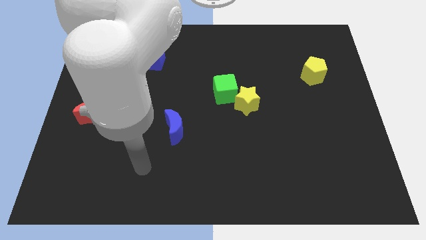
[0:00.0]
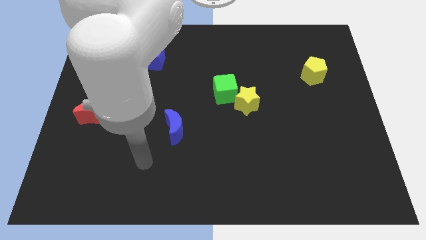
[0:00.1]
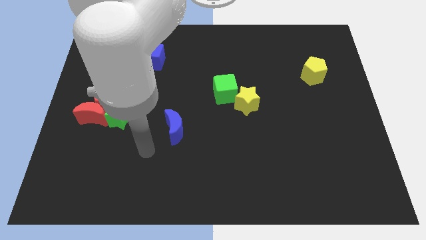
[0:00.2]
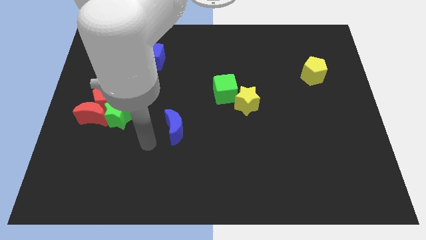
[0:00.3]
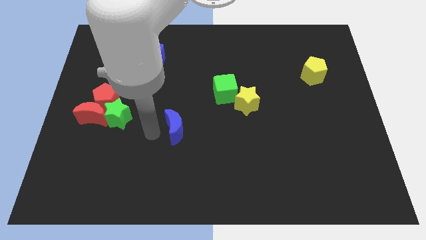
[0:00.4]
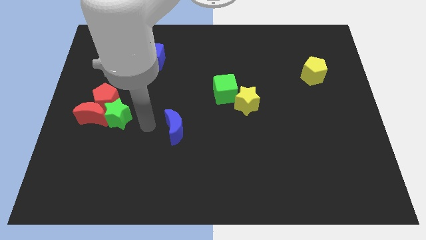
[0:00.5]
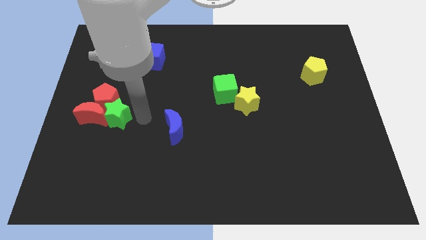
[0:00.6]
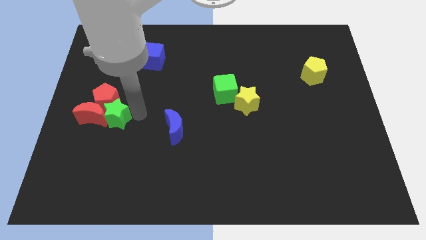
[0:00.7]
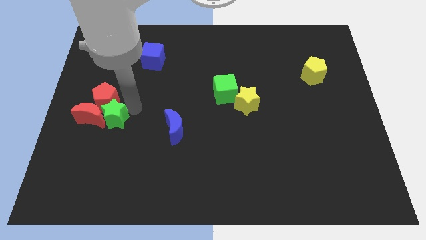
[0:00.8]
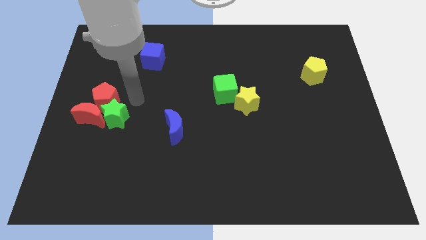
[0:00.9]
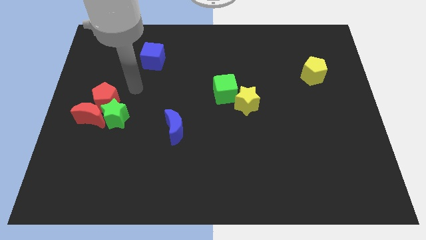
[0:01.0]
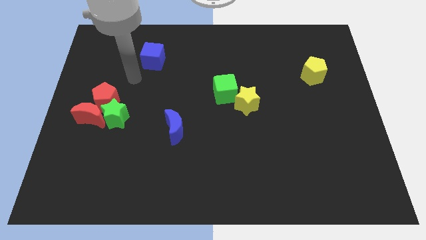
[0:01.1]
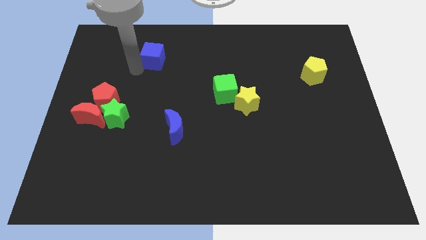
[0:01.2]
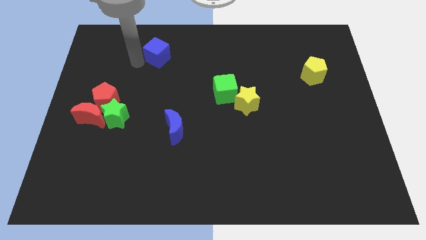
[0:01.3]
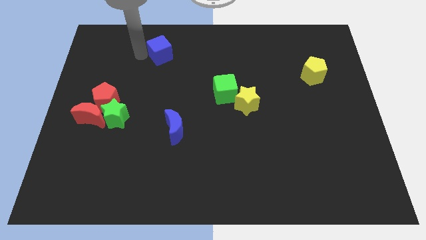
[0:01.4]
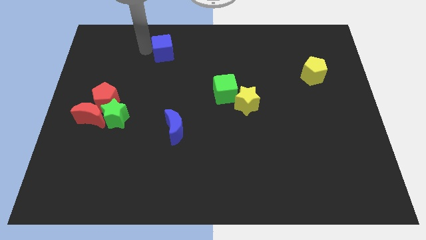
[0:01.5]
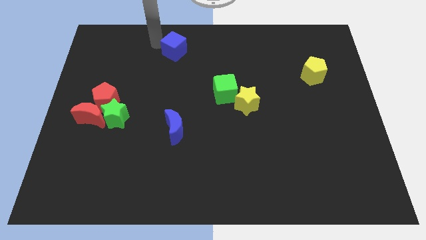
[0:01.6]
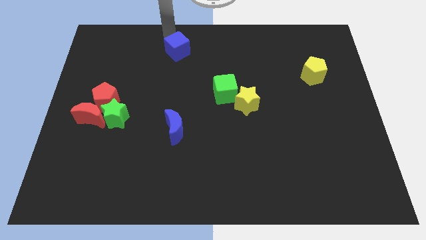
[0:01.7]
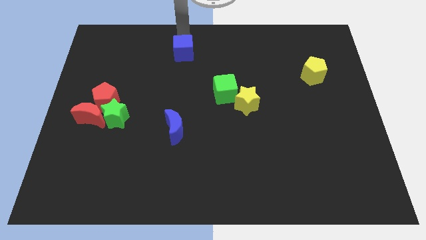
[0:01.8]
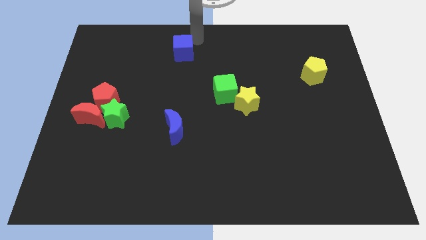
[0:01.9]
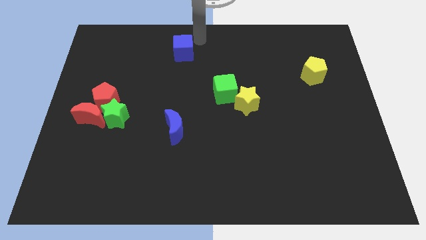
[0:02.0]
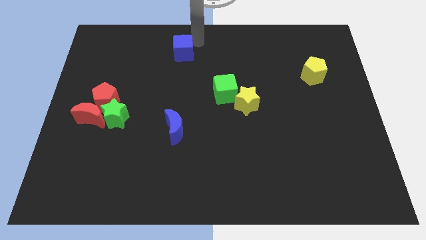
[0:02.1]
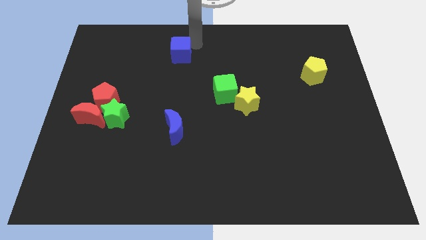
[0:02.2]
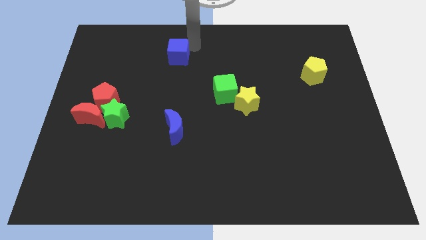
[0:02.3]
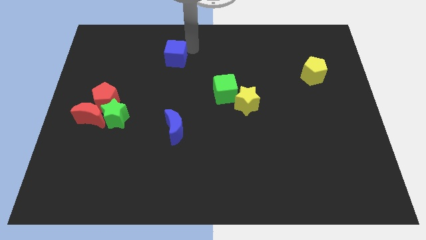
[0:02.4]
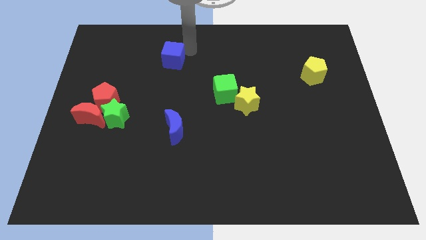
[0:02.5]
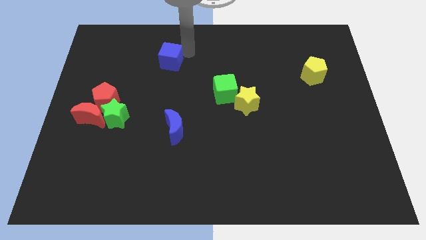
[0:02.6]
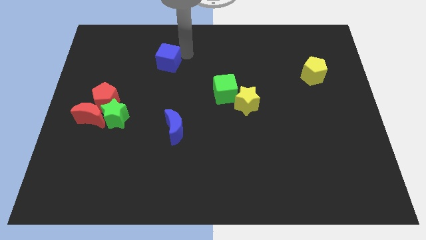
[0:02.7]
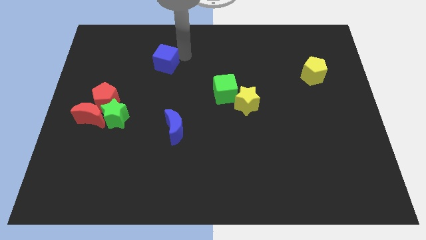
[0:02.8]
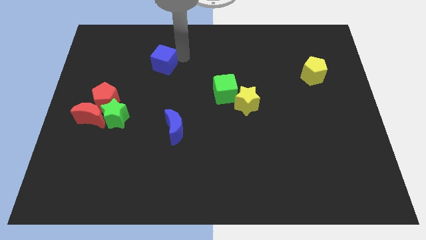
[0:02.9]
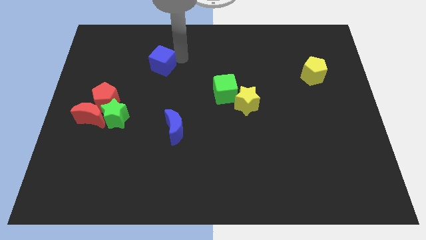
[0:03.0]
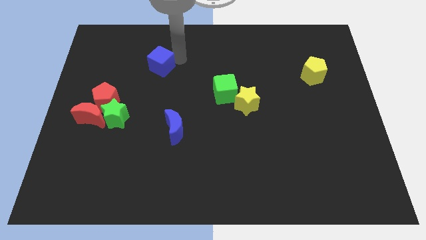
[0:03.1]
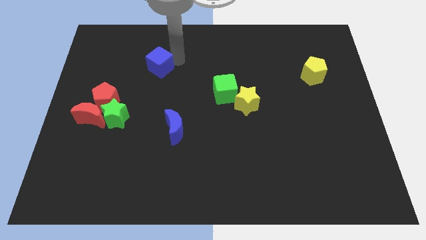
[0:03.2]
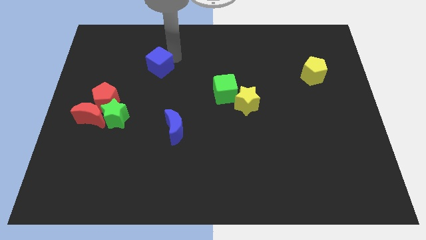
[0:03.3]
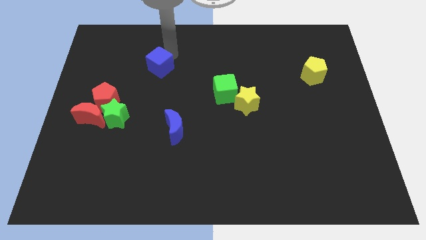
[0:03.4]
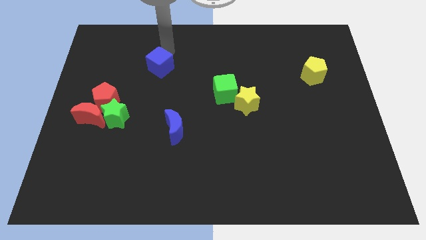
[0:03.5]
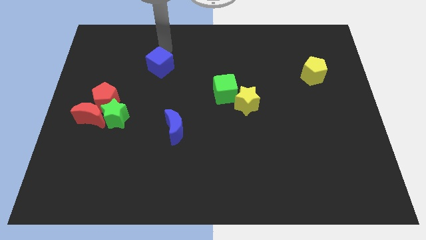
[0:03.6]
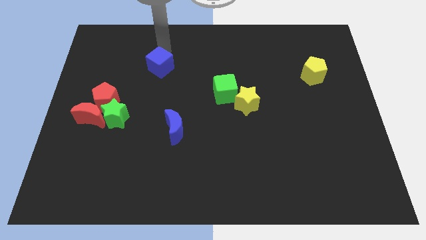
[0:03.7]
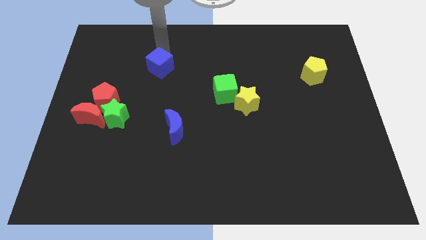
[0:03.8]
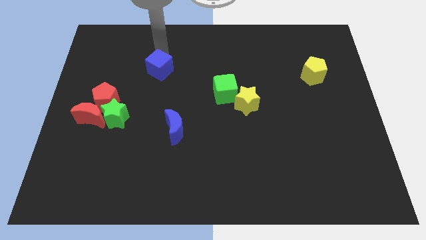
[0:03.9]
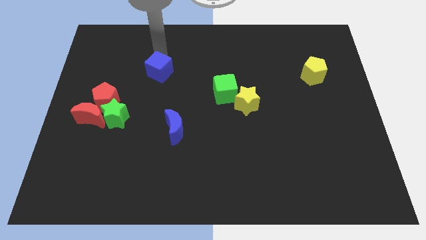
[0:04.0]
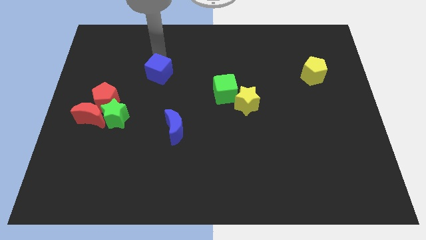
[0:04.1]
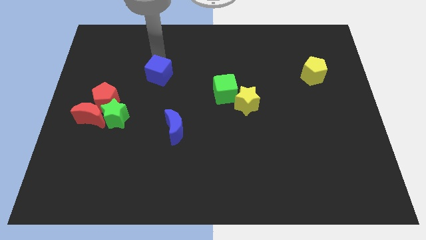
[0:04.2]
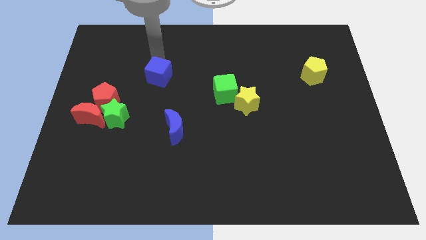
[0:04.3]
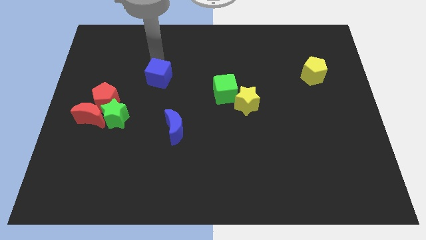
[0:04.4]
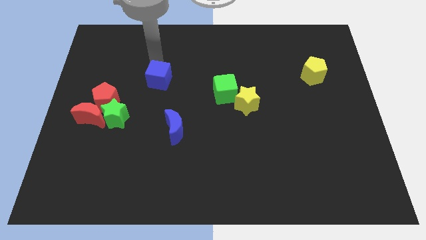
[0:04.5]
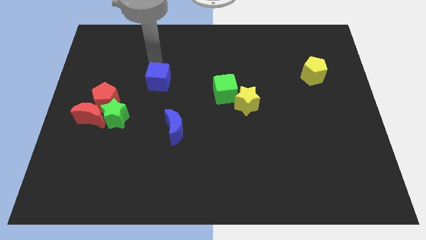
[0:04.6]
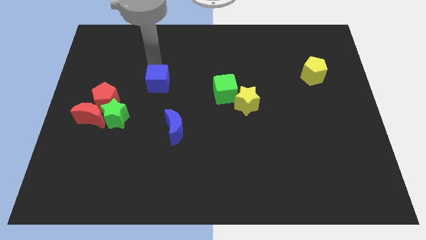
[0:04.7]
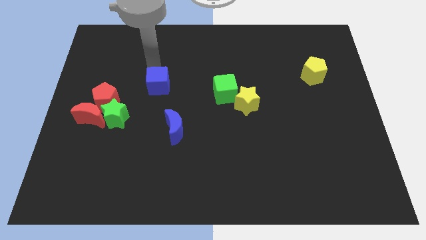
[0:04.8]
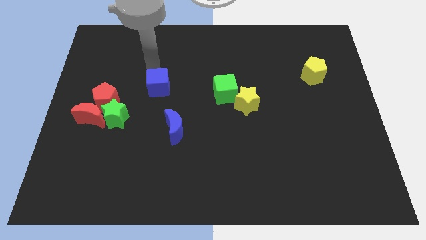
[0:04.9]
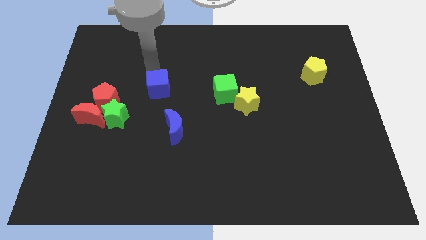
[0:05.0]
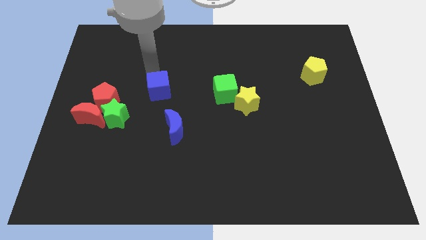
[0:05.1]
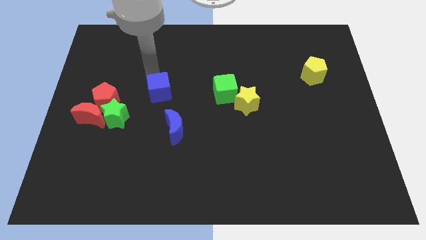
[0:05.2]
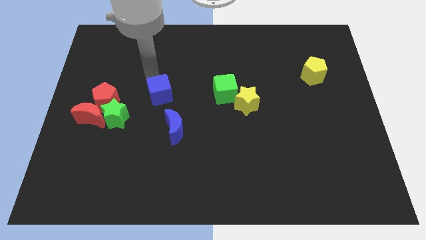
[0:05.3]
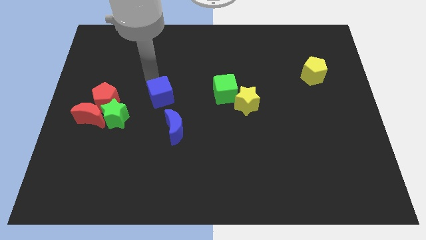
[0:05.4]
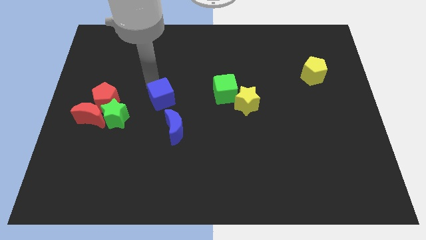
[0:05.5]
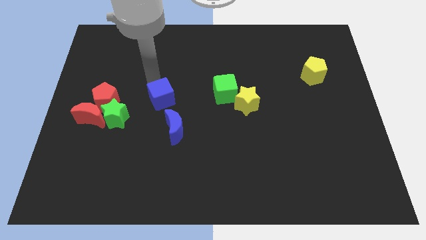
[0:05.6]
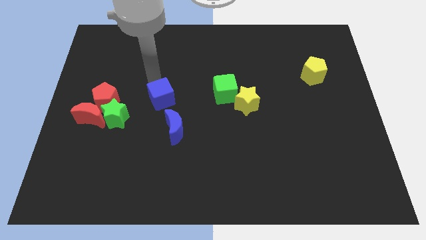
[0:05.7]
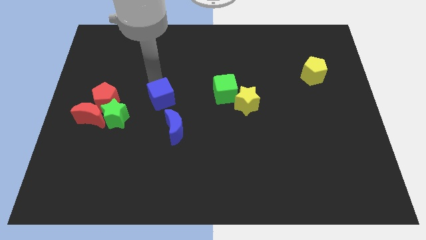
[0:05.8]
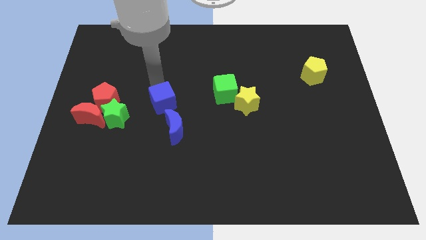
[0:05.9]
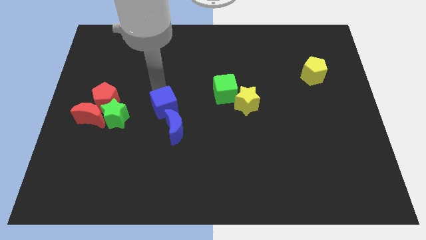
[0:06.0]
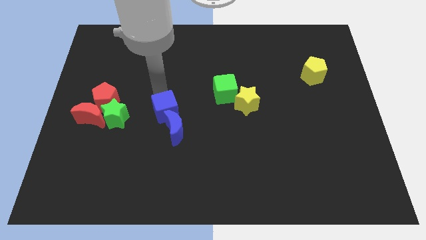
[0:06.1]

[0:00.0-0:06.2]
put the blue cube towards the blue moon

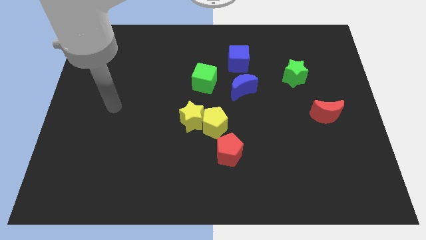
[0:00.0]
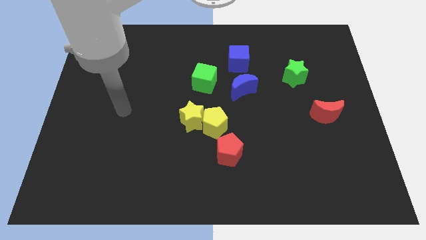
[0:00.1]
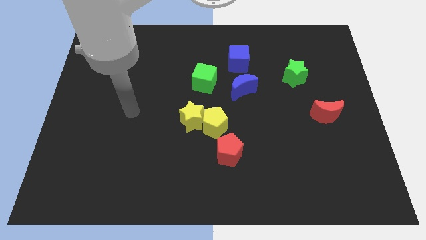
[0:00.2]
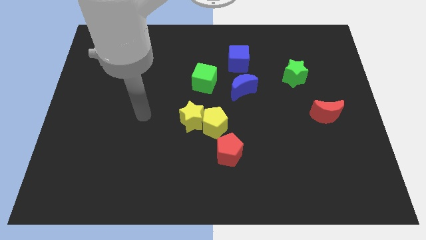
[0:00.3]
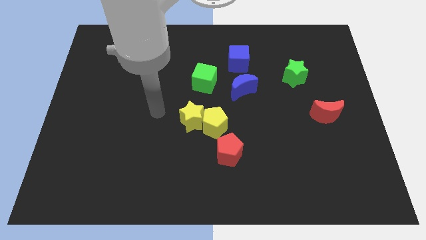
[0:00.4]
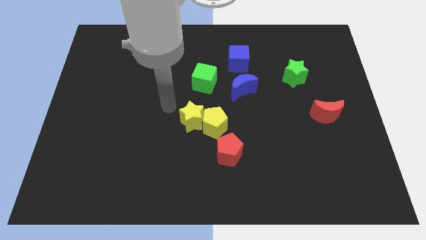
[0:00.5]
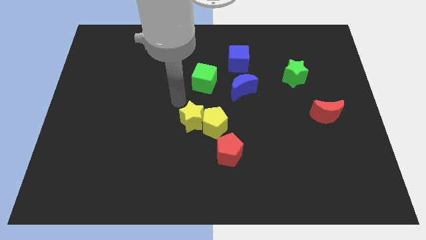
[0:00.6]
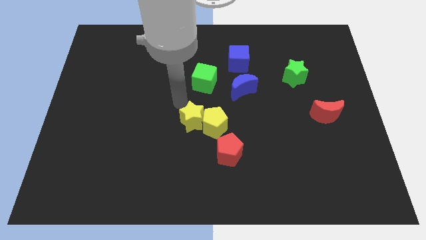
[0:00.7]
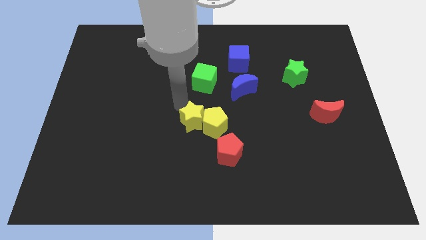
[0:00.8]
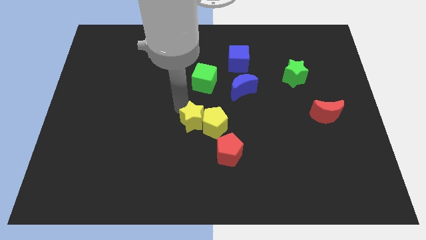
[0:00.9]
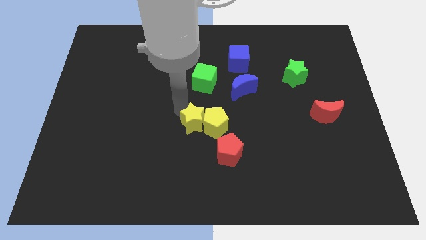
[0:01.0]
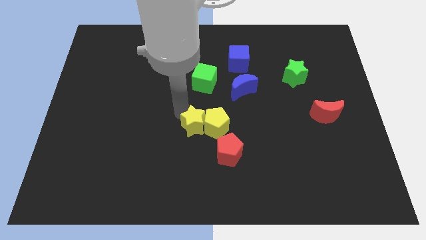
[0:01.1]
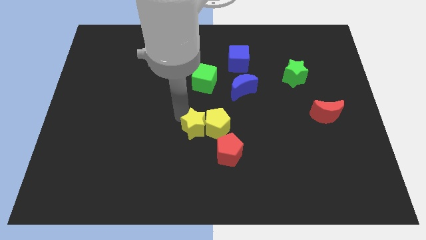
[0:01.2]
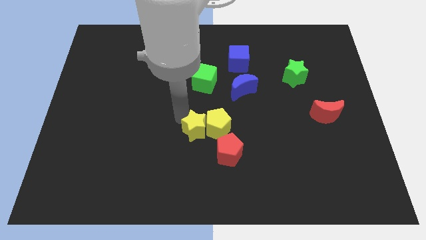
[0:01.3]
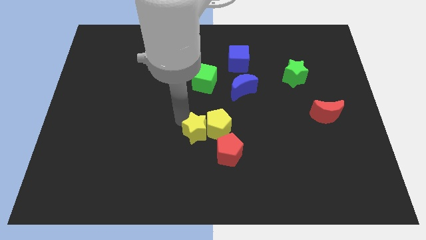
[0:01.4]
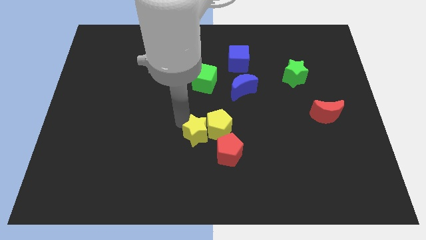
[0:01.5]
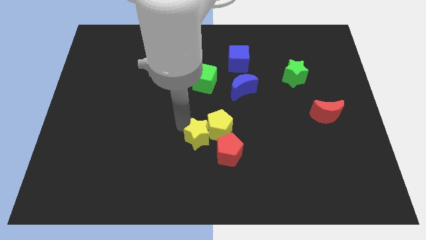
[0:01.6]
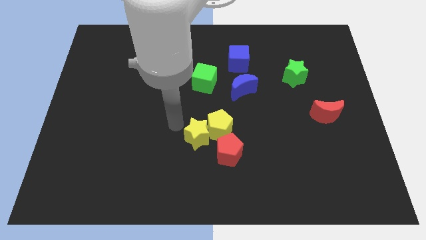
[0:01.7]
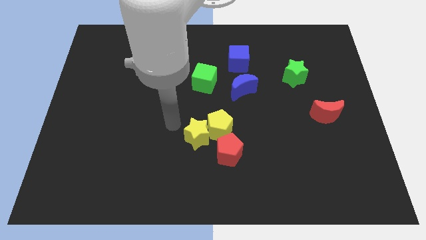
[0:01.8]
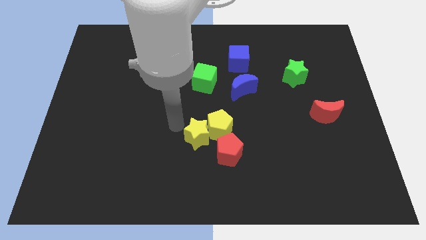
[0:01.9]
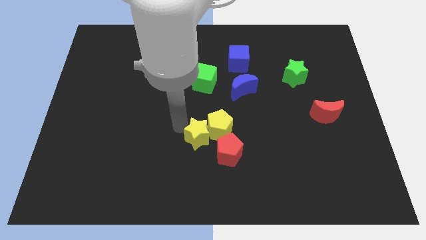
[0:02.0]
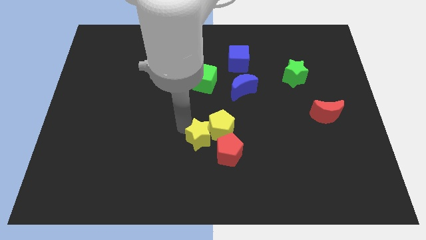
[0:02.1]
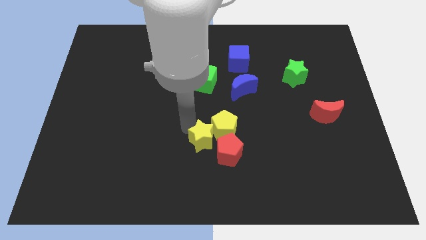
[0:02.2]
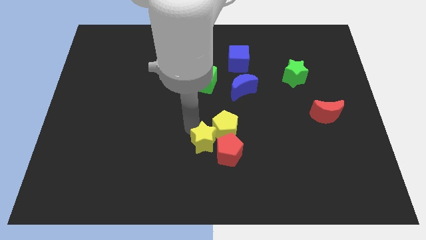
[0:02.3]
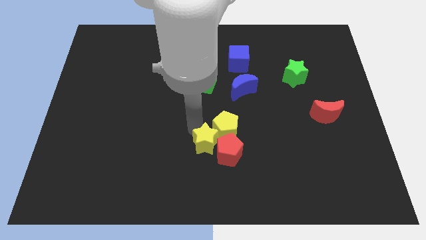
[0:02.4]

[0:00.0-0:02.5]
slide the yellow star to the red pentagon
